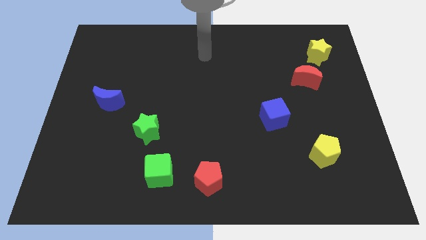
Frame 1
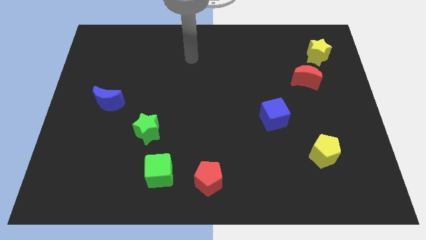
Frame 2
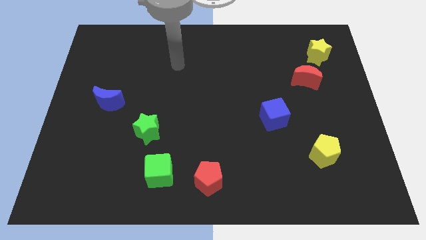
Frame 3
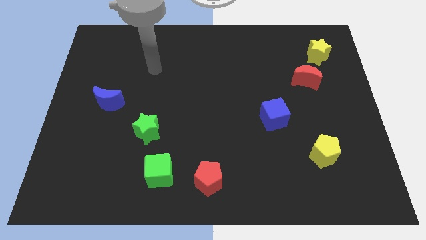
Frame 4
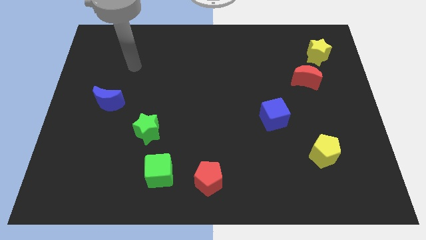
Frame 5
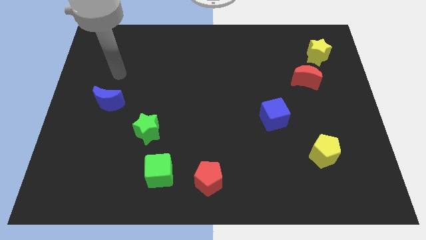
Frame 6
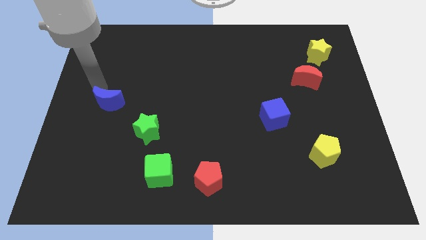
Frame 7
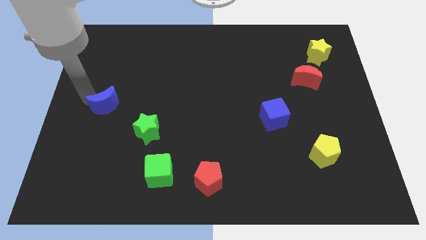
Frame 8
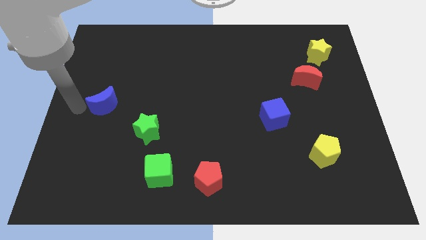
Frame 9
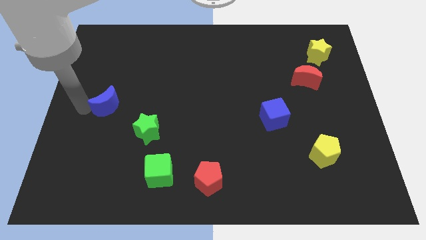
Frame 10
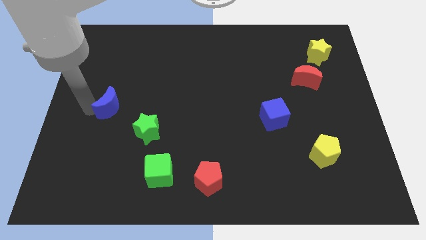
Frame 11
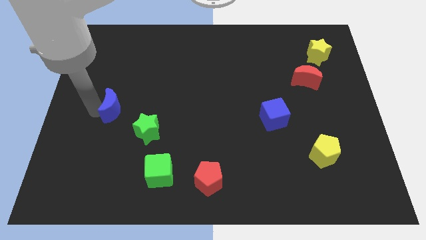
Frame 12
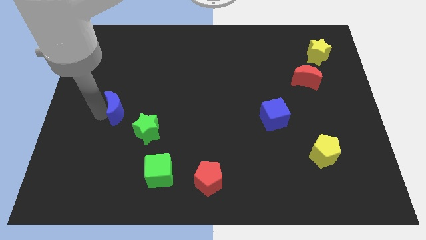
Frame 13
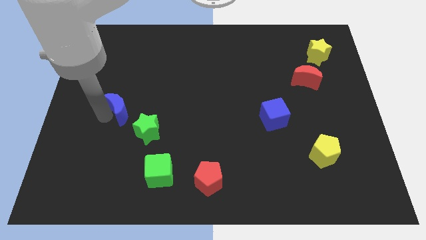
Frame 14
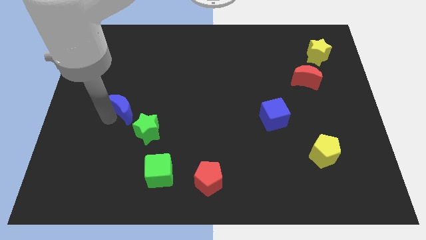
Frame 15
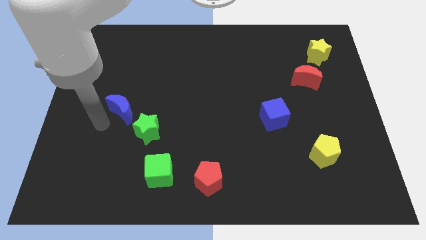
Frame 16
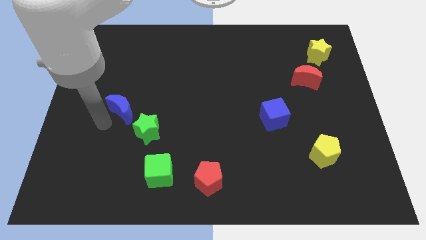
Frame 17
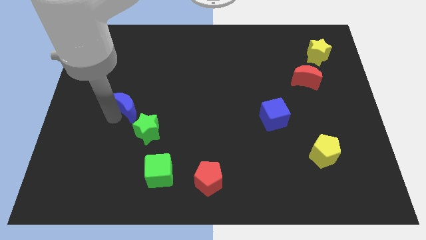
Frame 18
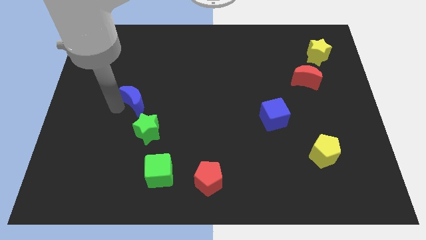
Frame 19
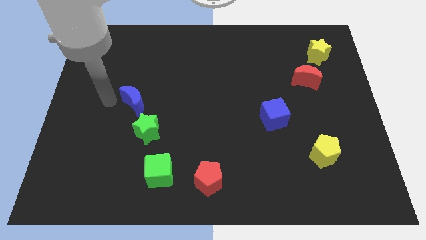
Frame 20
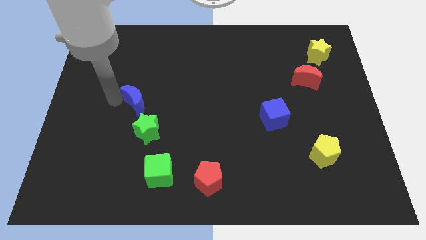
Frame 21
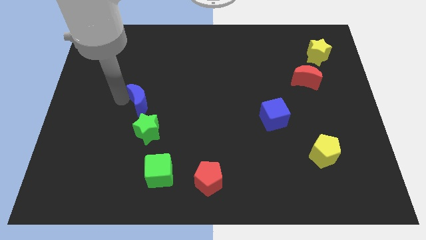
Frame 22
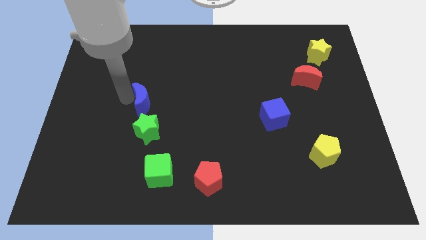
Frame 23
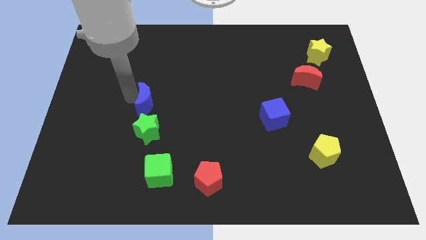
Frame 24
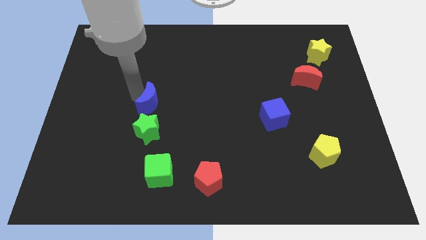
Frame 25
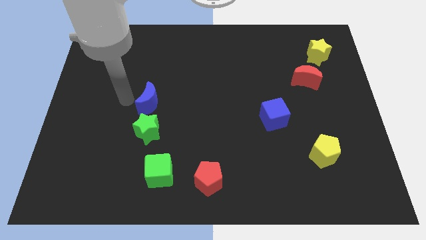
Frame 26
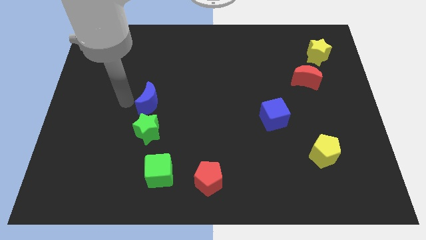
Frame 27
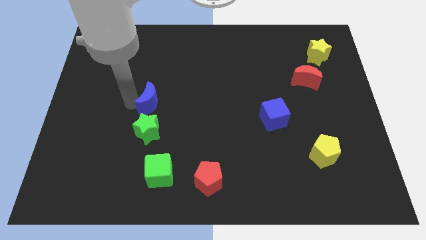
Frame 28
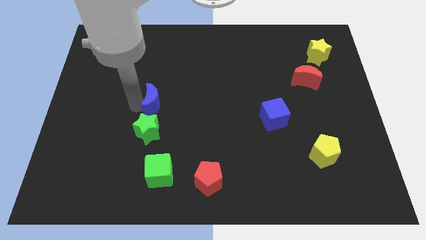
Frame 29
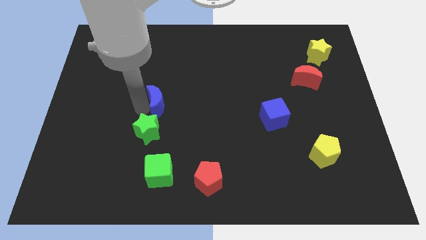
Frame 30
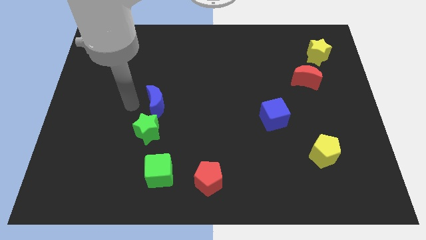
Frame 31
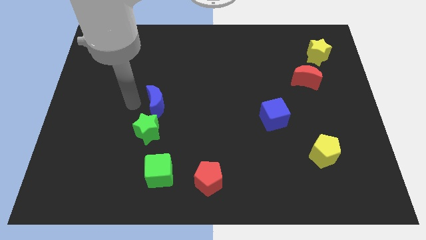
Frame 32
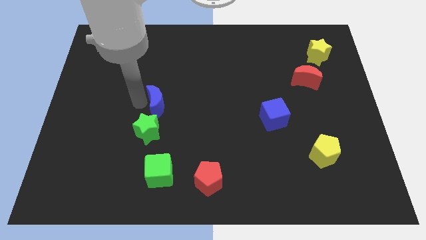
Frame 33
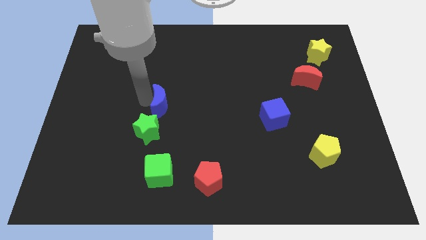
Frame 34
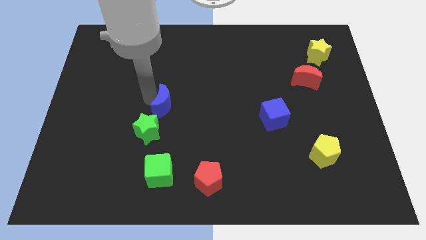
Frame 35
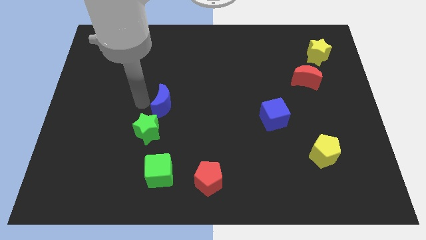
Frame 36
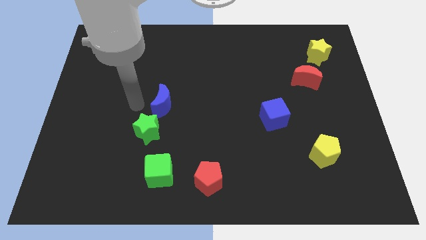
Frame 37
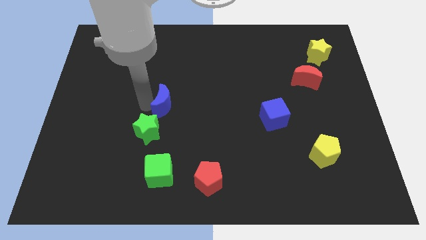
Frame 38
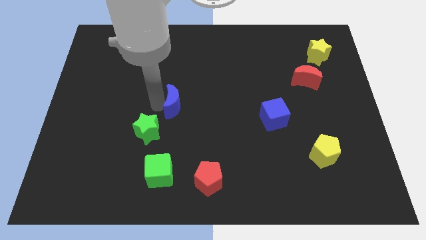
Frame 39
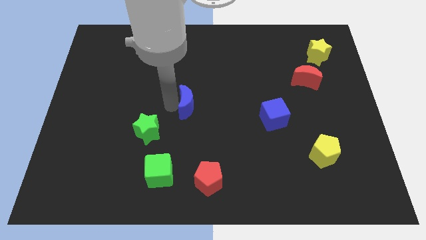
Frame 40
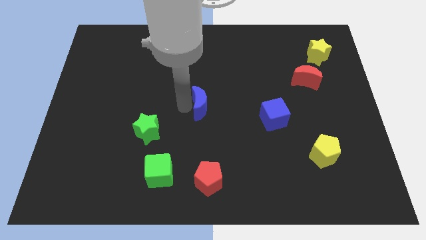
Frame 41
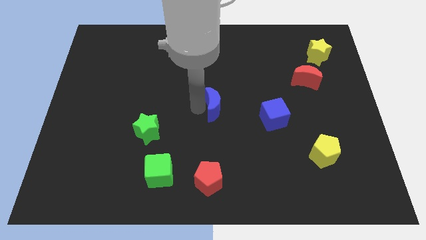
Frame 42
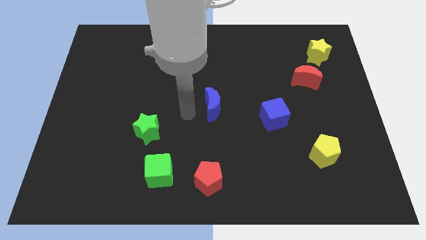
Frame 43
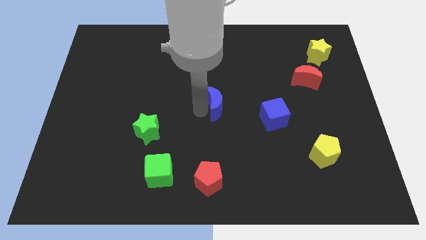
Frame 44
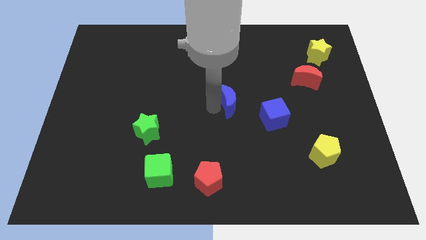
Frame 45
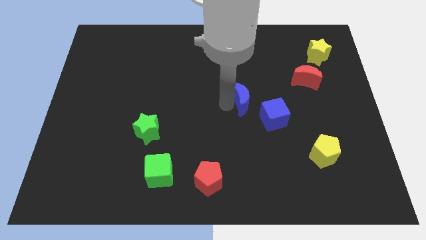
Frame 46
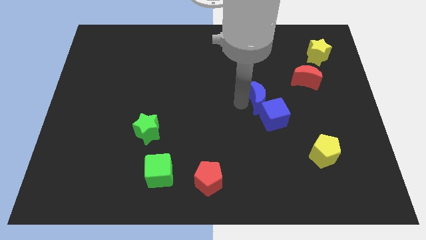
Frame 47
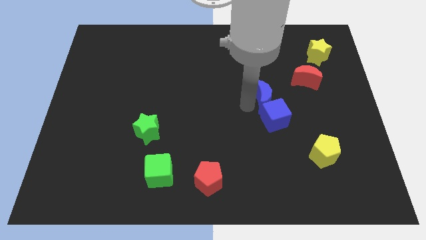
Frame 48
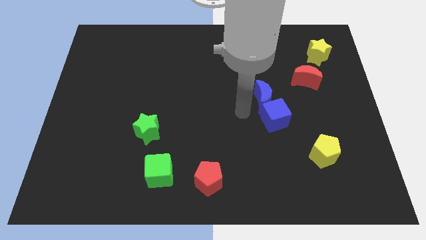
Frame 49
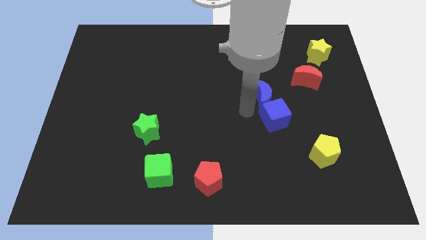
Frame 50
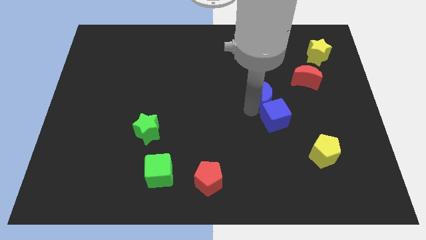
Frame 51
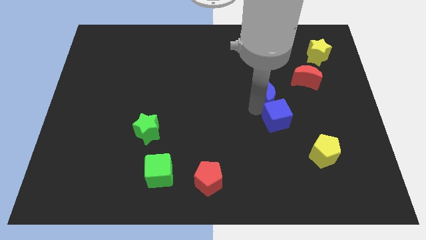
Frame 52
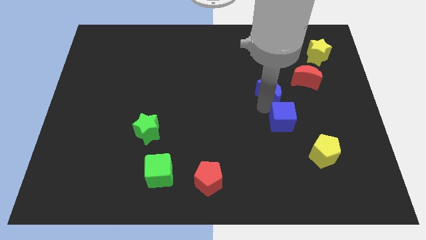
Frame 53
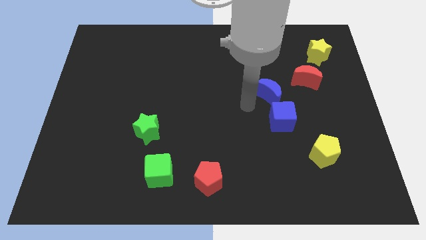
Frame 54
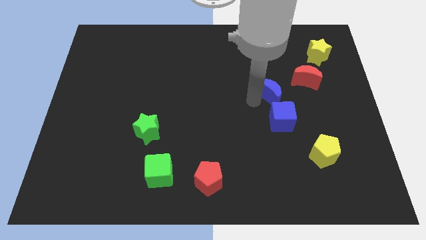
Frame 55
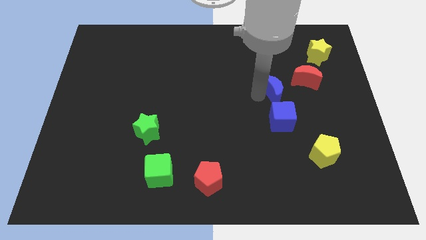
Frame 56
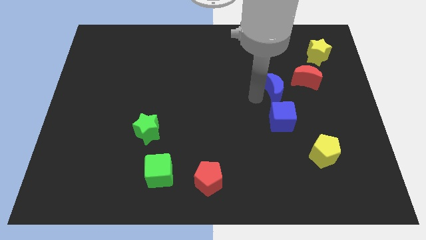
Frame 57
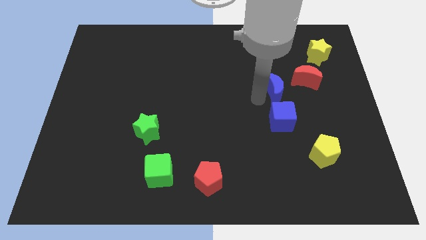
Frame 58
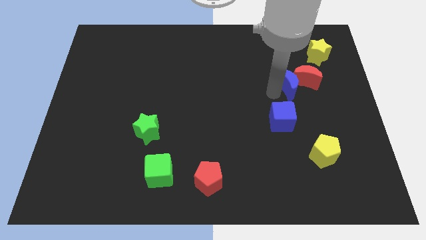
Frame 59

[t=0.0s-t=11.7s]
put the blue moon close to the red moon
